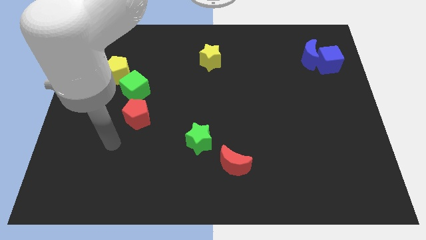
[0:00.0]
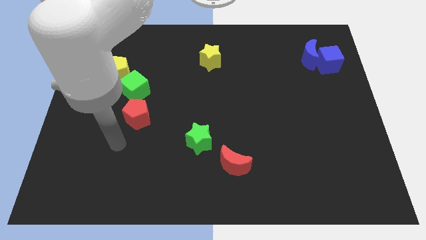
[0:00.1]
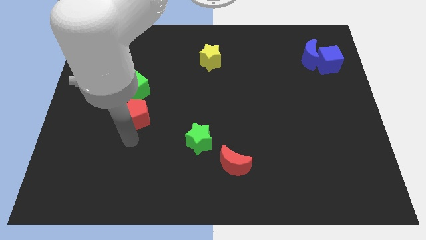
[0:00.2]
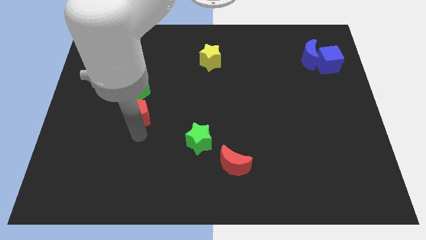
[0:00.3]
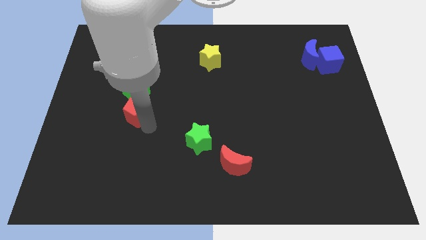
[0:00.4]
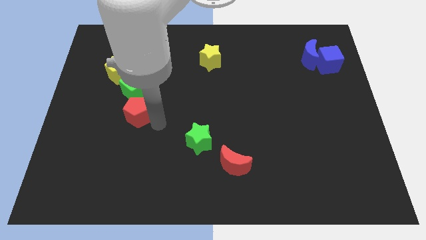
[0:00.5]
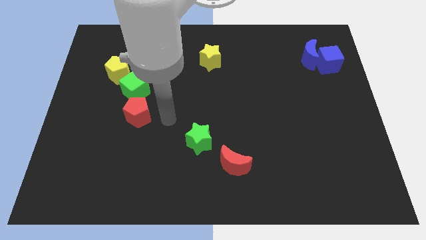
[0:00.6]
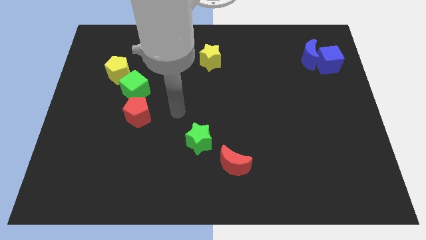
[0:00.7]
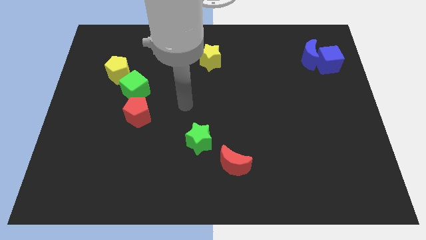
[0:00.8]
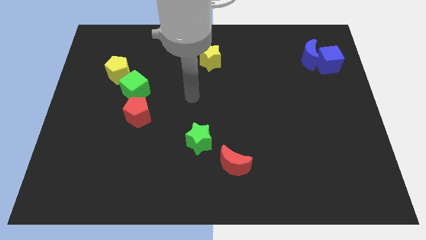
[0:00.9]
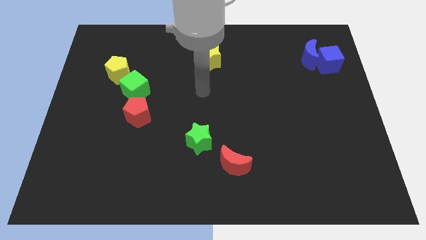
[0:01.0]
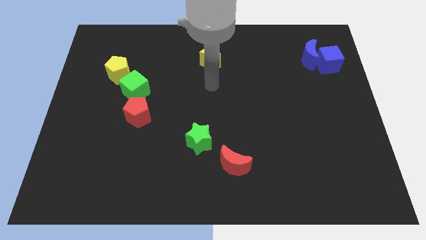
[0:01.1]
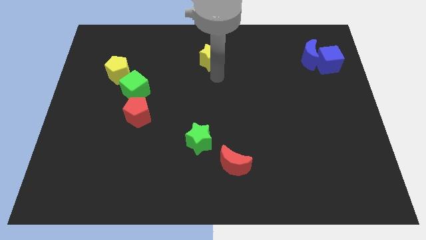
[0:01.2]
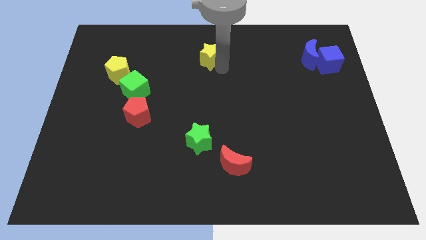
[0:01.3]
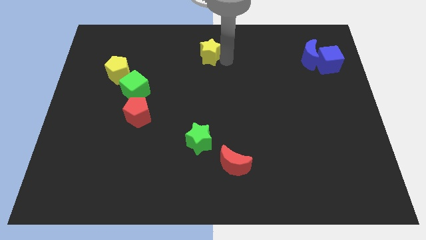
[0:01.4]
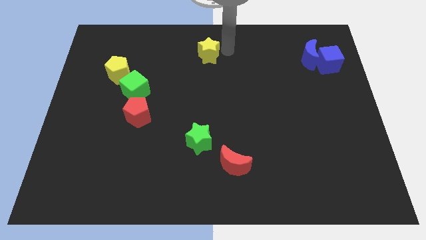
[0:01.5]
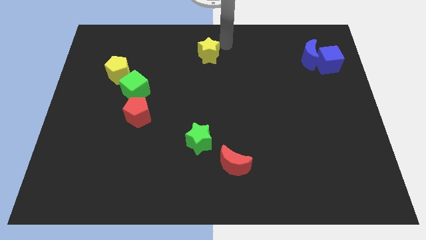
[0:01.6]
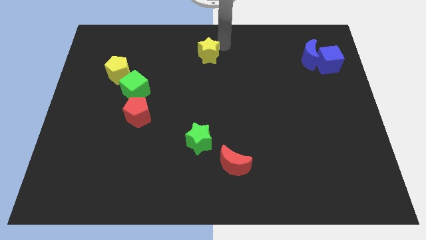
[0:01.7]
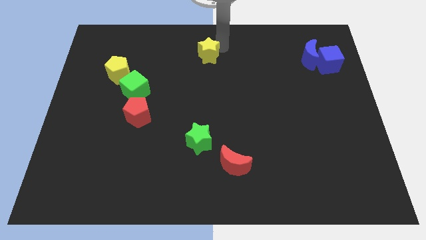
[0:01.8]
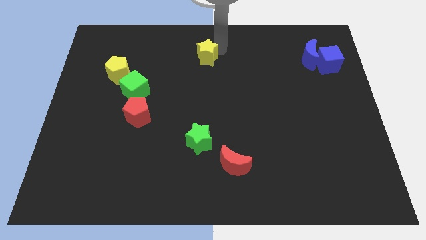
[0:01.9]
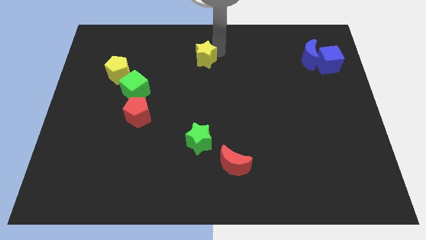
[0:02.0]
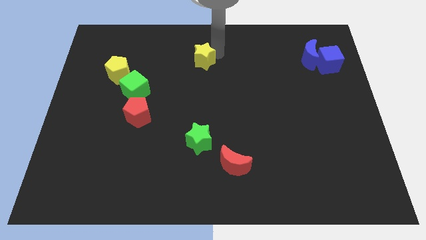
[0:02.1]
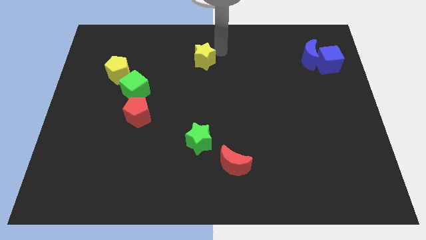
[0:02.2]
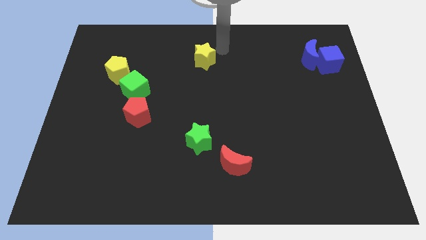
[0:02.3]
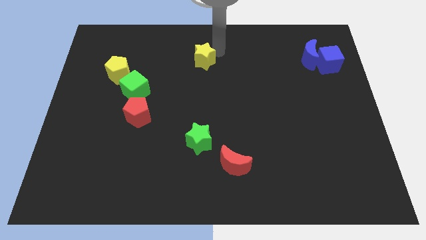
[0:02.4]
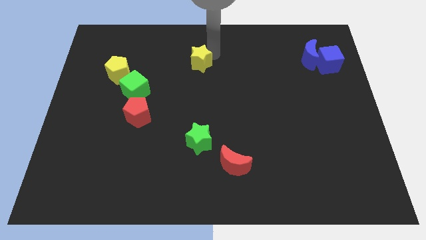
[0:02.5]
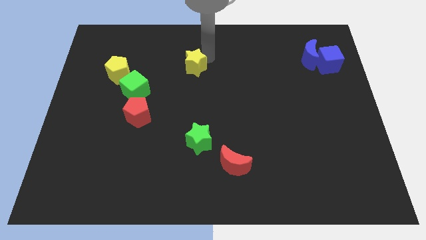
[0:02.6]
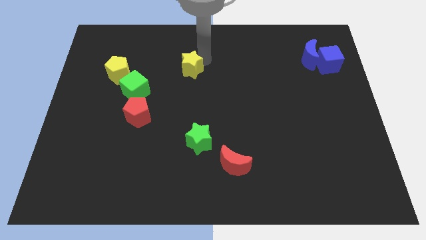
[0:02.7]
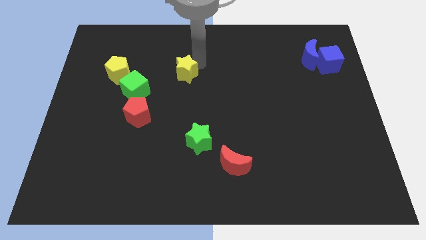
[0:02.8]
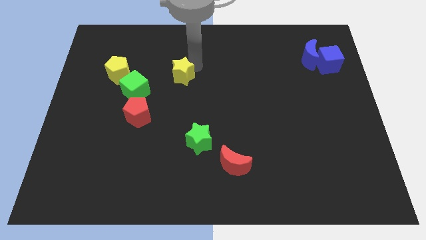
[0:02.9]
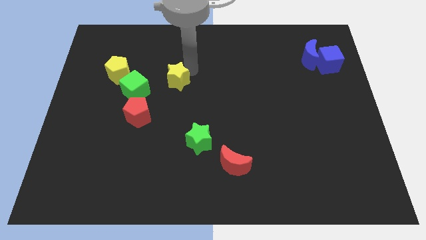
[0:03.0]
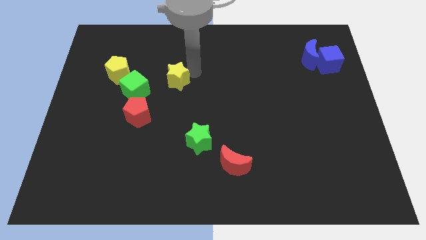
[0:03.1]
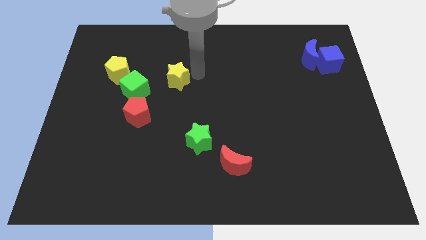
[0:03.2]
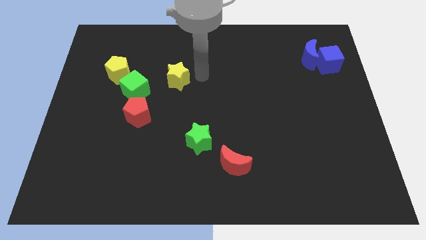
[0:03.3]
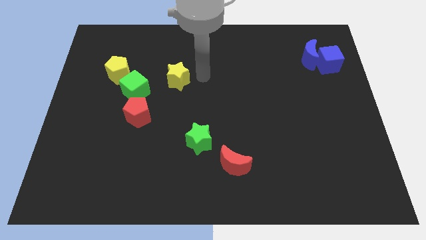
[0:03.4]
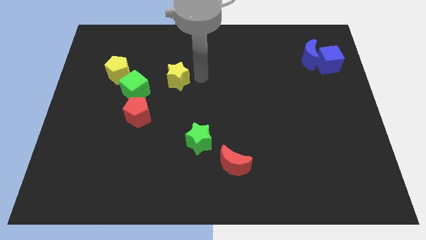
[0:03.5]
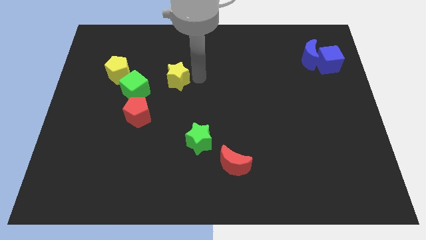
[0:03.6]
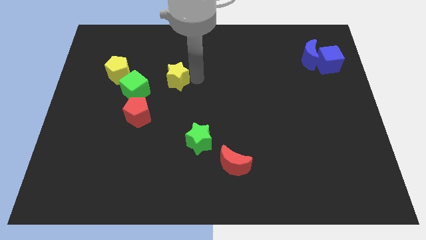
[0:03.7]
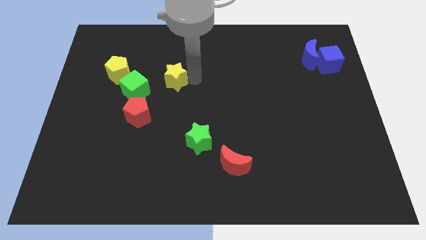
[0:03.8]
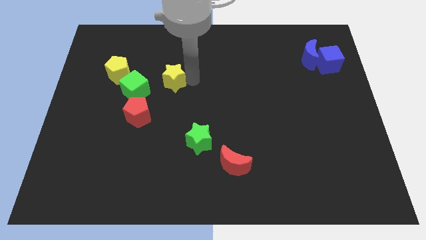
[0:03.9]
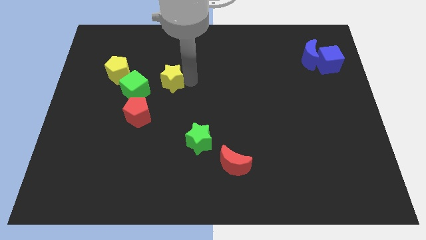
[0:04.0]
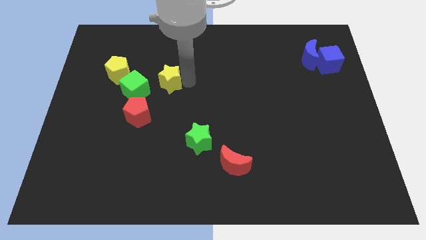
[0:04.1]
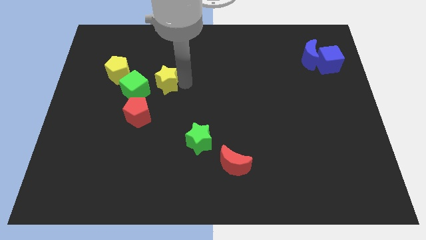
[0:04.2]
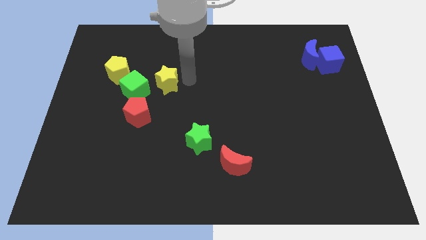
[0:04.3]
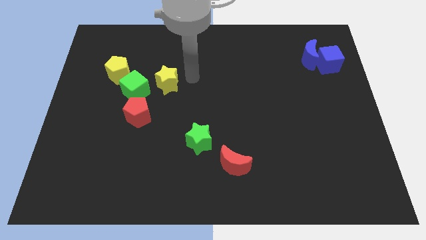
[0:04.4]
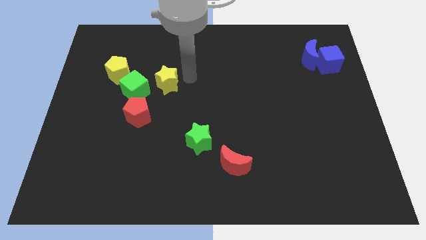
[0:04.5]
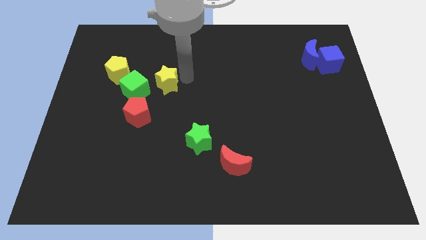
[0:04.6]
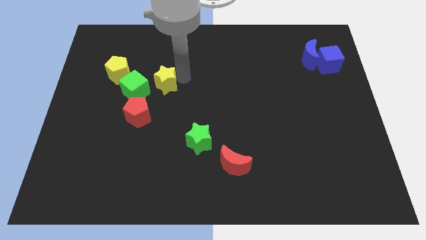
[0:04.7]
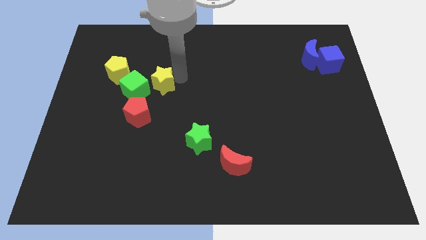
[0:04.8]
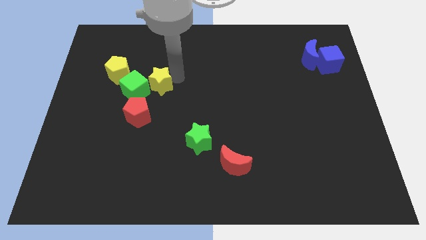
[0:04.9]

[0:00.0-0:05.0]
put the yellow star to the green cube

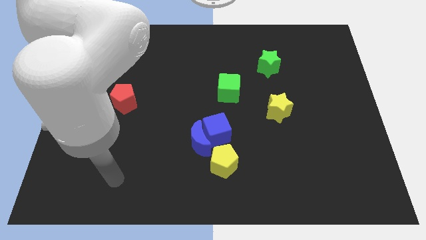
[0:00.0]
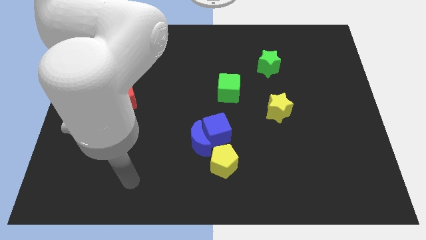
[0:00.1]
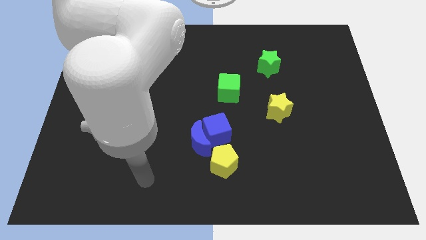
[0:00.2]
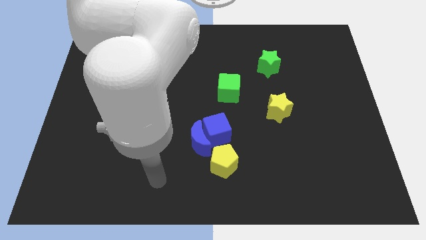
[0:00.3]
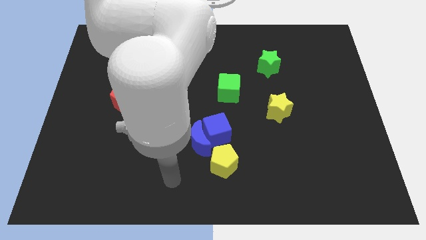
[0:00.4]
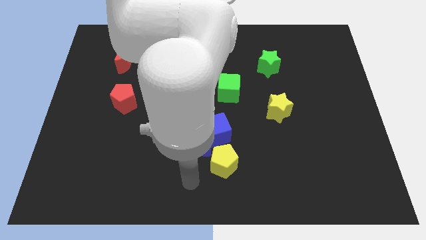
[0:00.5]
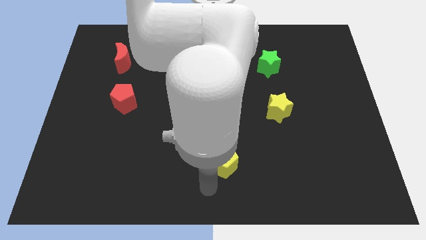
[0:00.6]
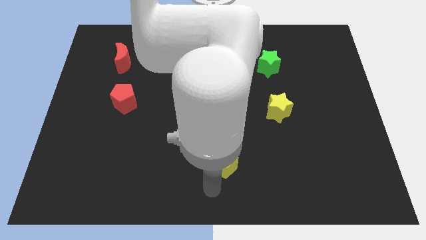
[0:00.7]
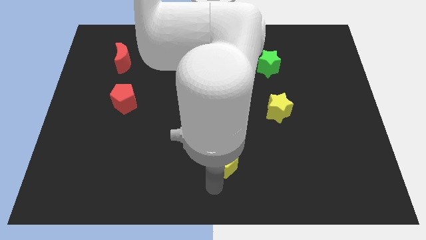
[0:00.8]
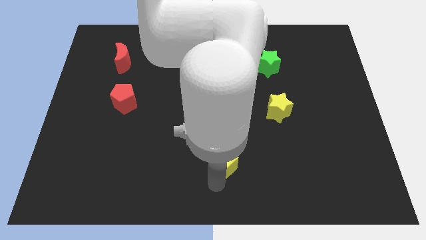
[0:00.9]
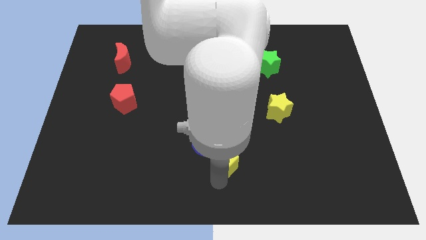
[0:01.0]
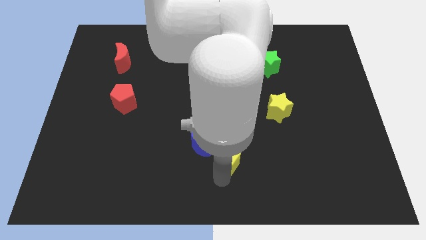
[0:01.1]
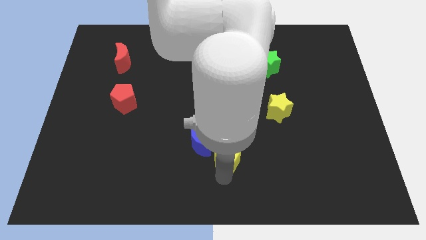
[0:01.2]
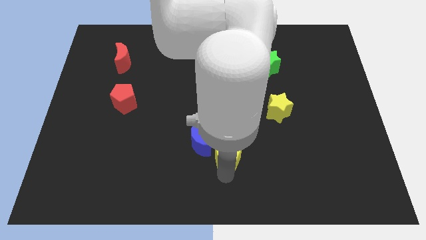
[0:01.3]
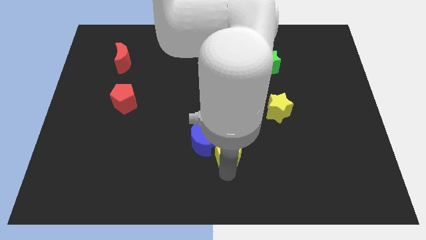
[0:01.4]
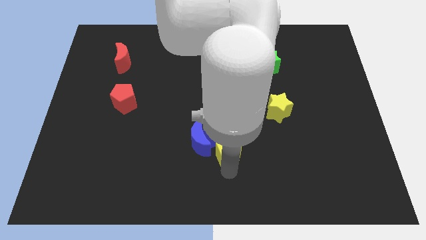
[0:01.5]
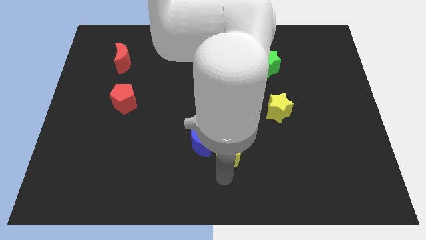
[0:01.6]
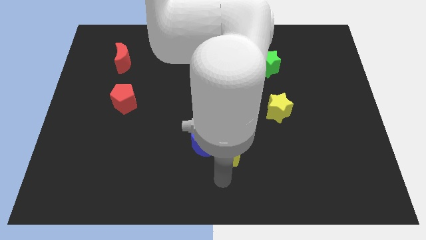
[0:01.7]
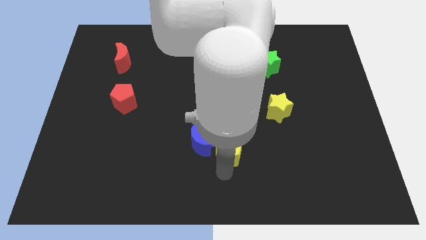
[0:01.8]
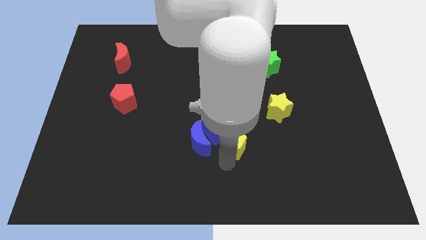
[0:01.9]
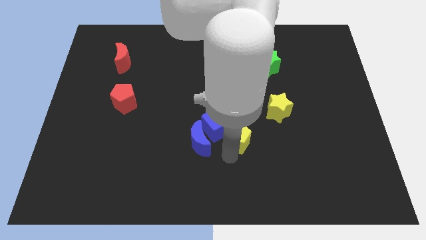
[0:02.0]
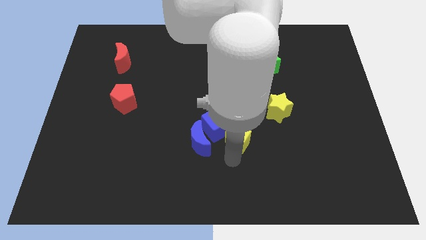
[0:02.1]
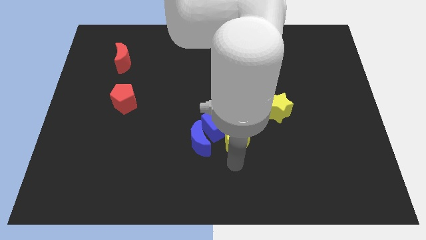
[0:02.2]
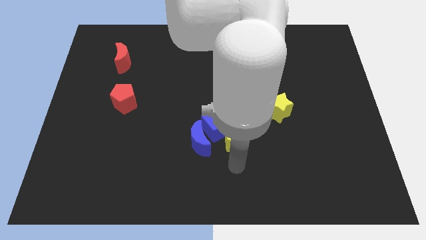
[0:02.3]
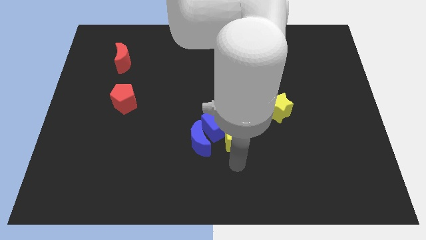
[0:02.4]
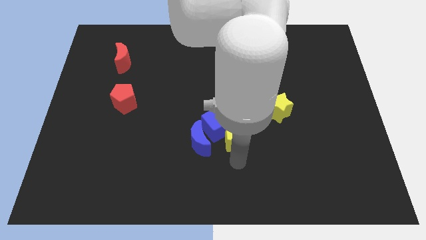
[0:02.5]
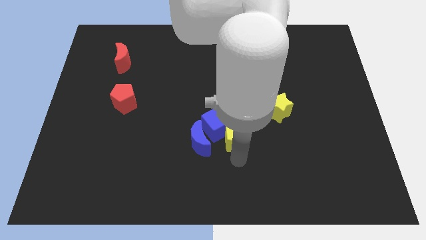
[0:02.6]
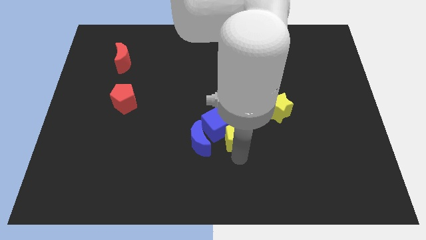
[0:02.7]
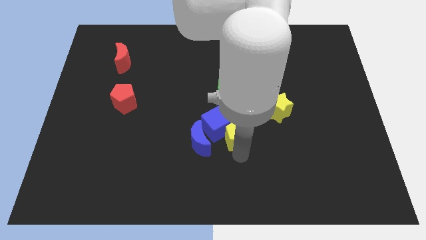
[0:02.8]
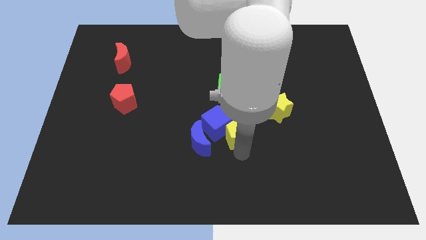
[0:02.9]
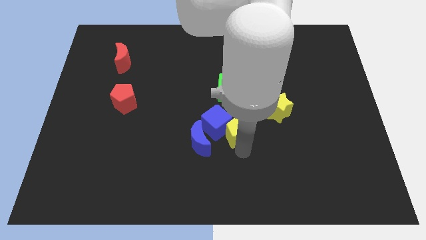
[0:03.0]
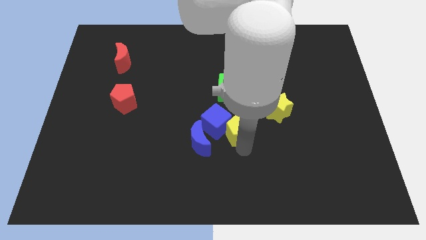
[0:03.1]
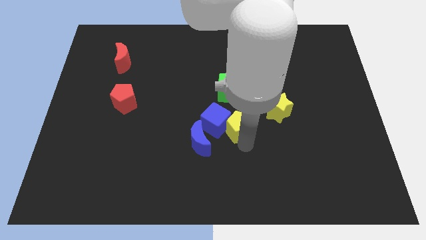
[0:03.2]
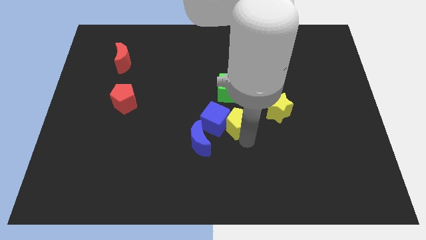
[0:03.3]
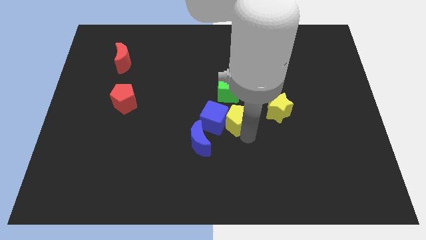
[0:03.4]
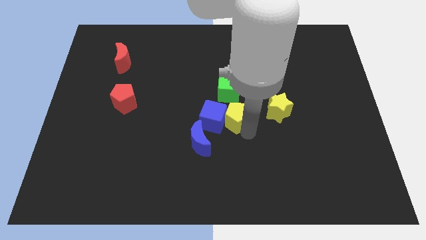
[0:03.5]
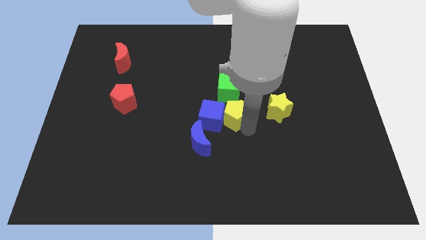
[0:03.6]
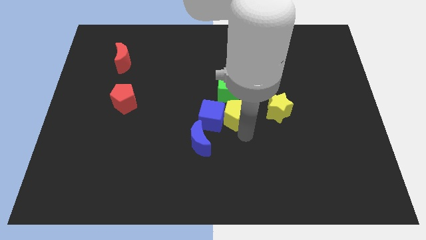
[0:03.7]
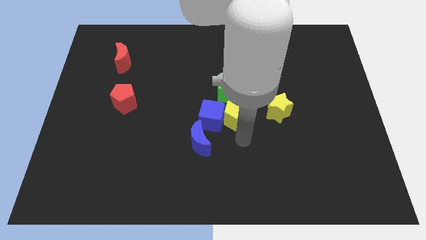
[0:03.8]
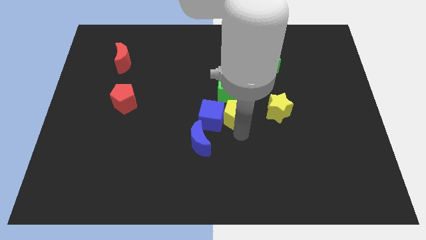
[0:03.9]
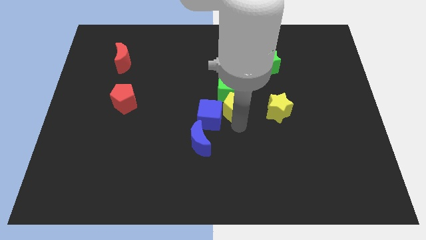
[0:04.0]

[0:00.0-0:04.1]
put the yellow pentagon close to the green cube
